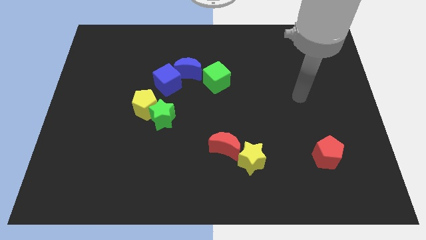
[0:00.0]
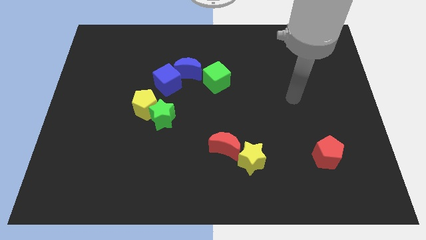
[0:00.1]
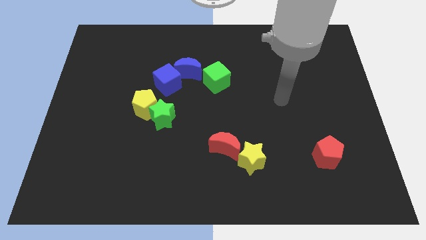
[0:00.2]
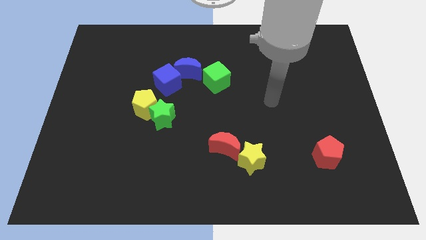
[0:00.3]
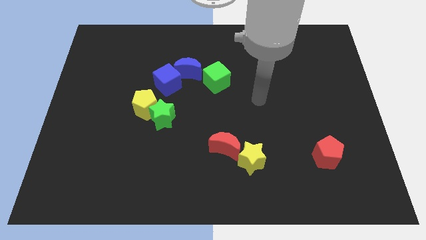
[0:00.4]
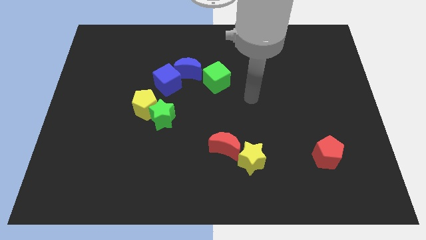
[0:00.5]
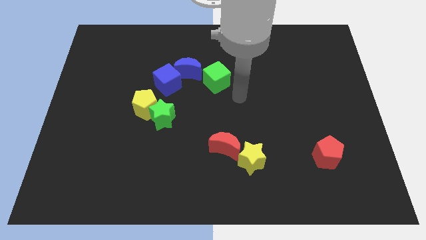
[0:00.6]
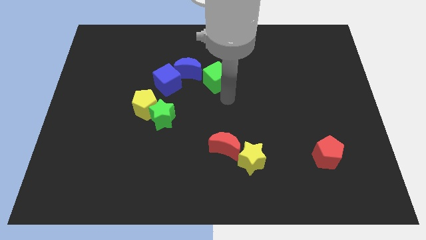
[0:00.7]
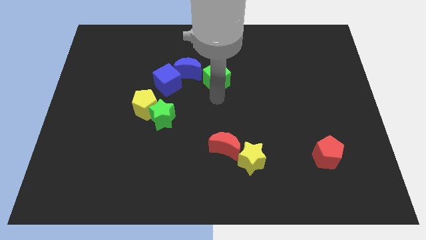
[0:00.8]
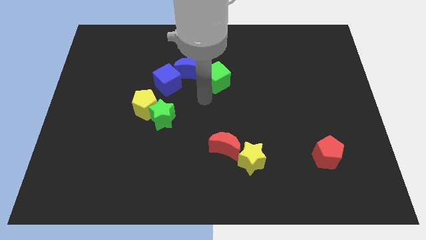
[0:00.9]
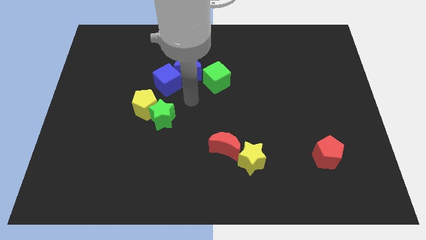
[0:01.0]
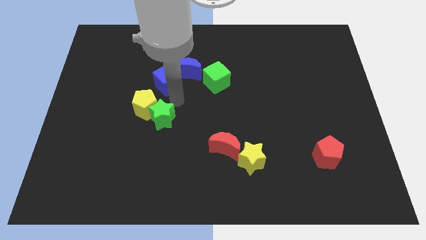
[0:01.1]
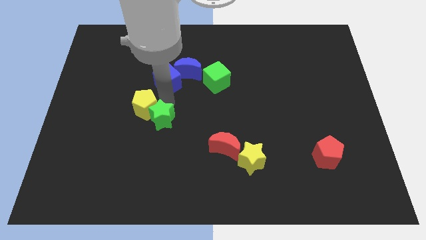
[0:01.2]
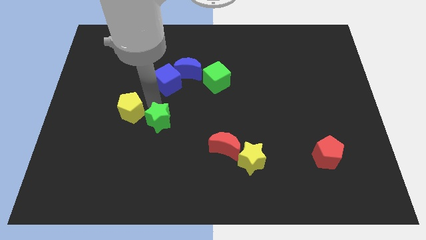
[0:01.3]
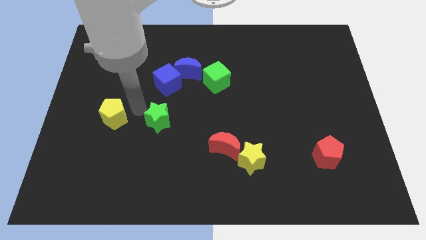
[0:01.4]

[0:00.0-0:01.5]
pull the green star apart from the yellow pentagon

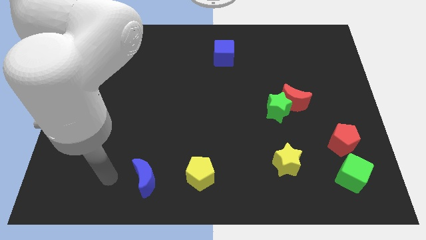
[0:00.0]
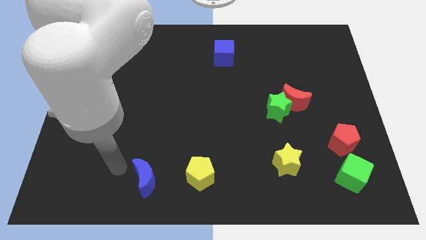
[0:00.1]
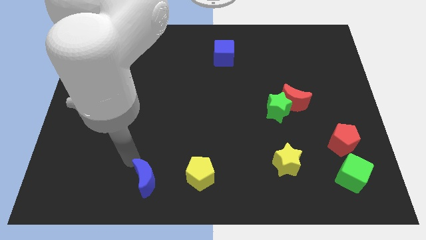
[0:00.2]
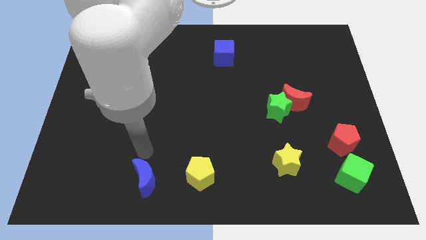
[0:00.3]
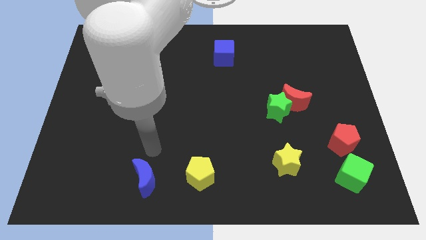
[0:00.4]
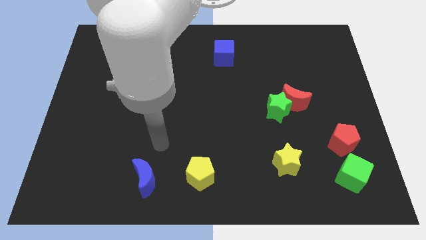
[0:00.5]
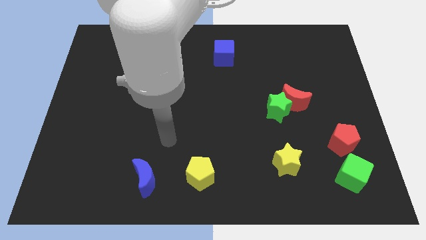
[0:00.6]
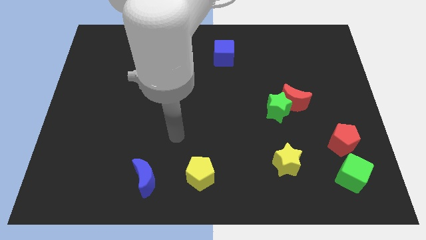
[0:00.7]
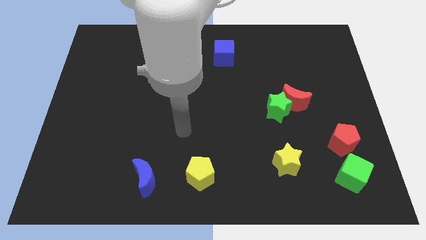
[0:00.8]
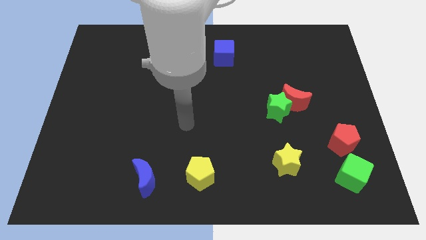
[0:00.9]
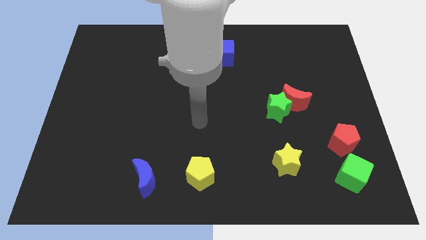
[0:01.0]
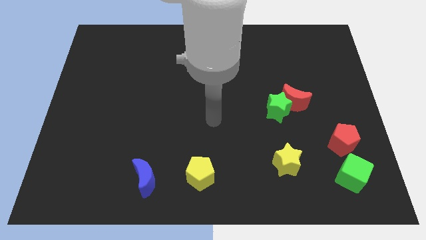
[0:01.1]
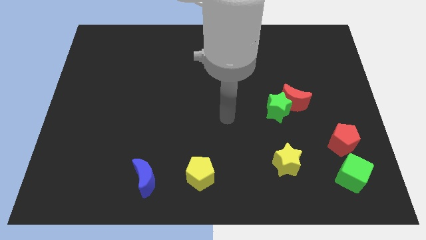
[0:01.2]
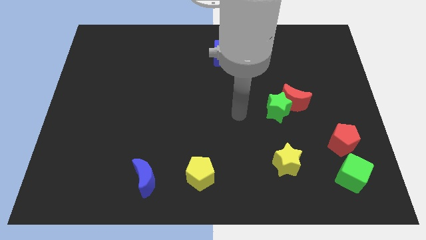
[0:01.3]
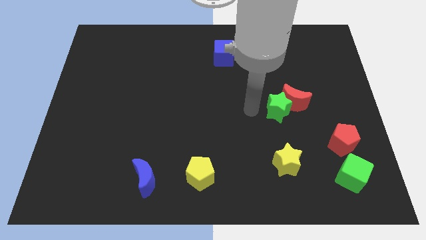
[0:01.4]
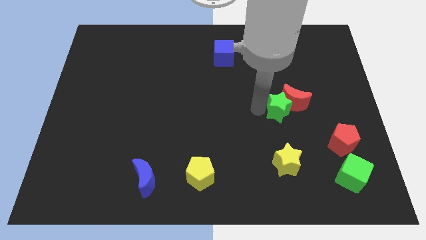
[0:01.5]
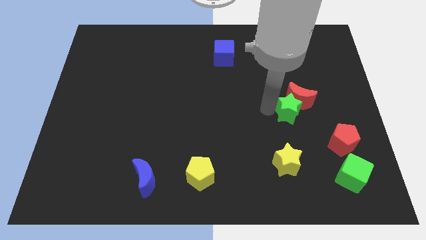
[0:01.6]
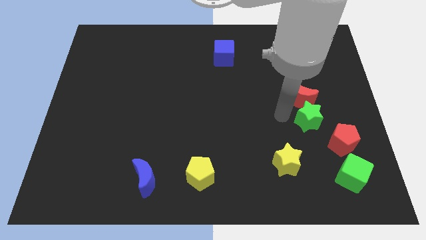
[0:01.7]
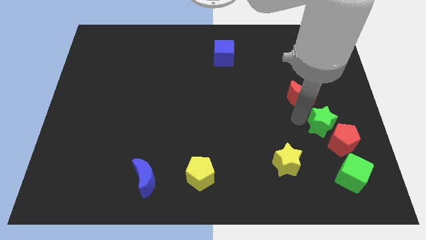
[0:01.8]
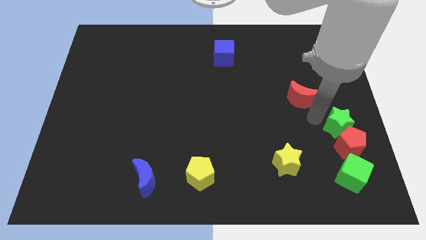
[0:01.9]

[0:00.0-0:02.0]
pull the red moon apart from the green star

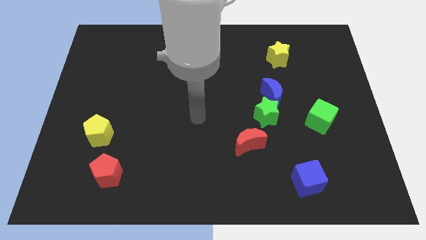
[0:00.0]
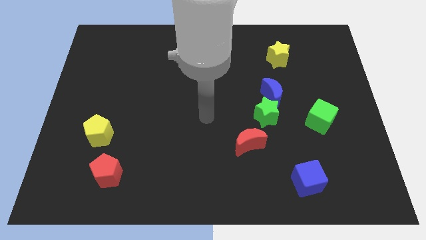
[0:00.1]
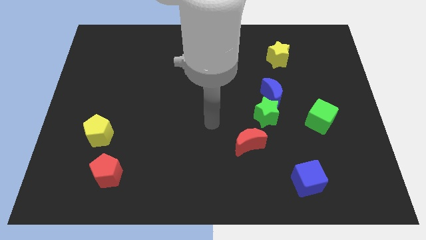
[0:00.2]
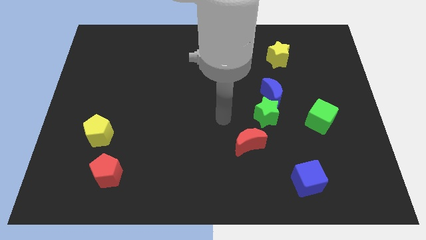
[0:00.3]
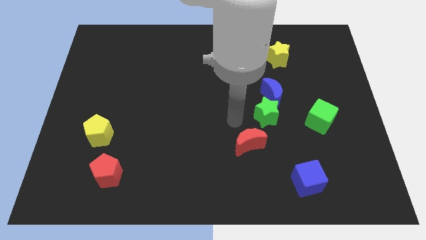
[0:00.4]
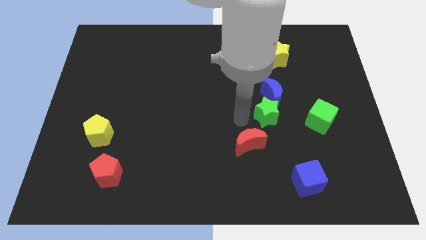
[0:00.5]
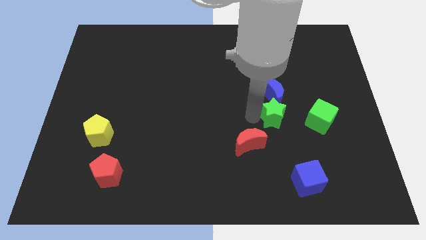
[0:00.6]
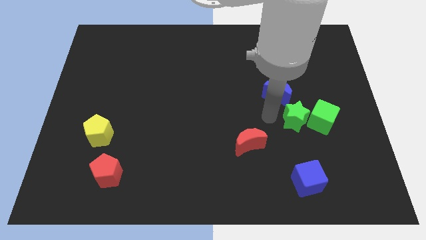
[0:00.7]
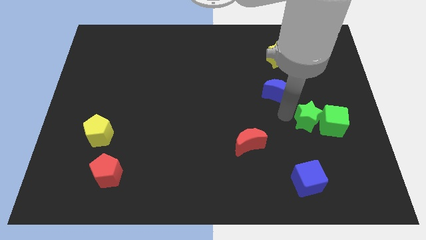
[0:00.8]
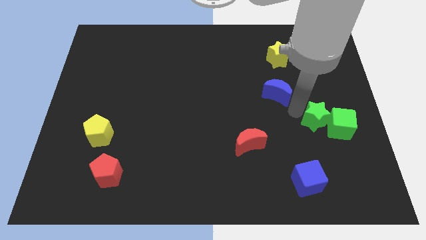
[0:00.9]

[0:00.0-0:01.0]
pull the blue moon apart from the green star

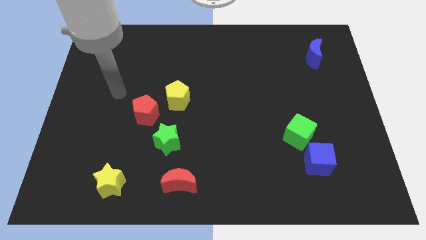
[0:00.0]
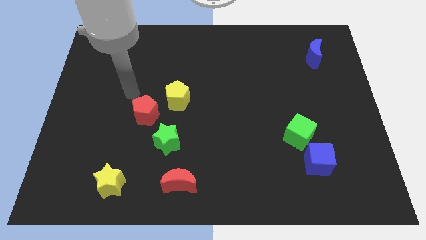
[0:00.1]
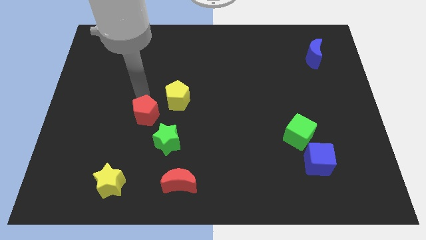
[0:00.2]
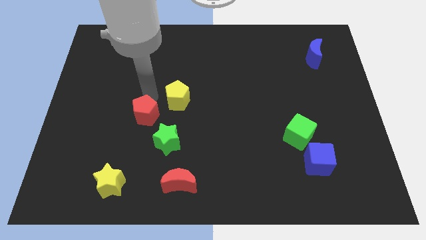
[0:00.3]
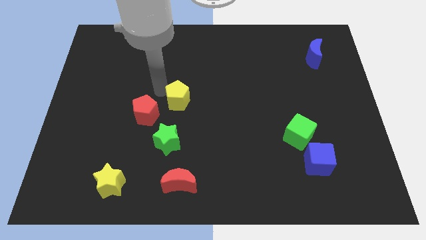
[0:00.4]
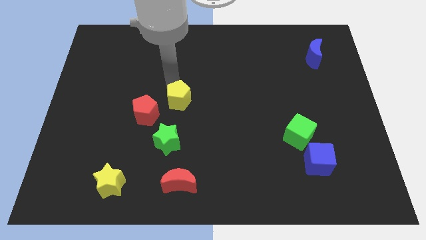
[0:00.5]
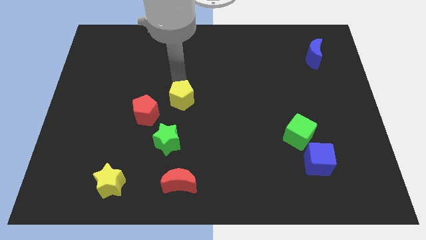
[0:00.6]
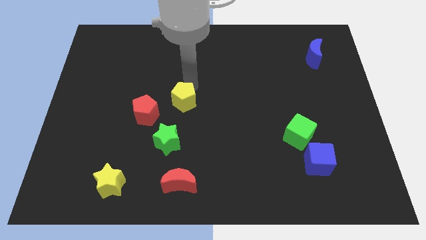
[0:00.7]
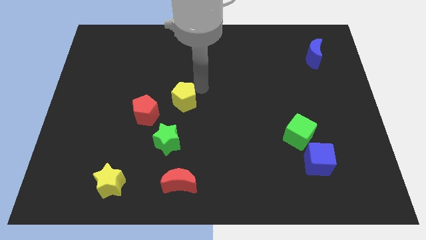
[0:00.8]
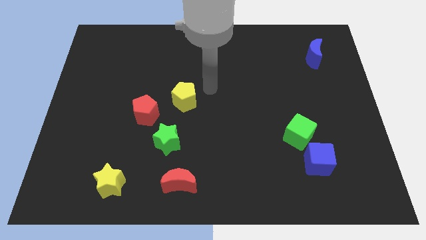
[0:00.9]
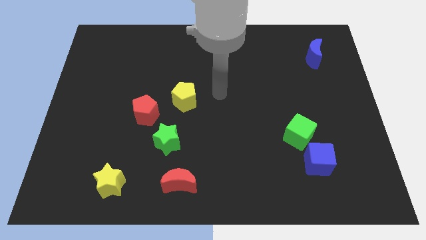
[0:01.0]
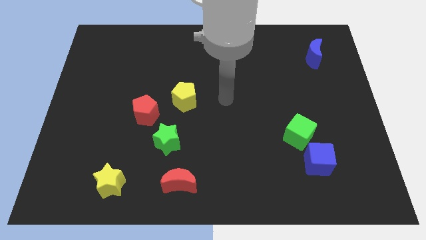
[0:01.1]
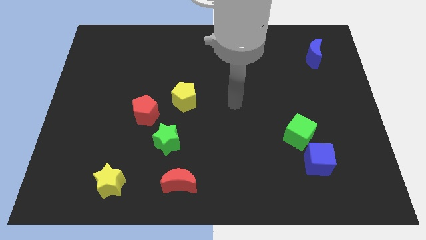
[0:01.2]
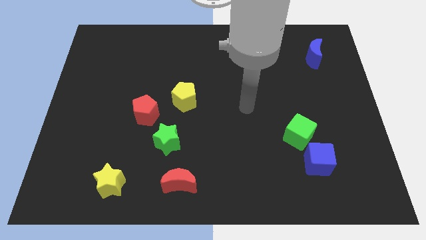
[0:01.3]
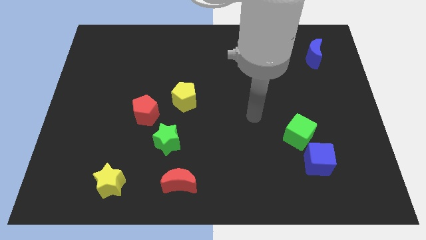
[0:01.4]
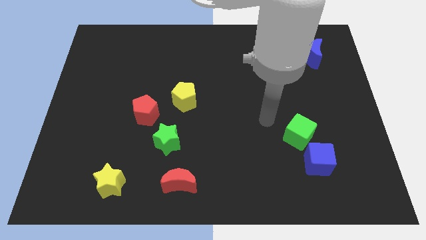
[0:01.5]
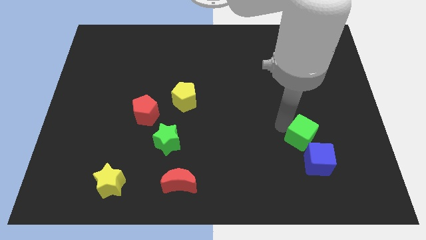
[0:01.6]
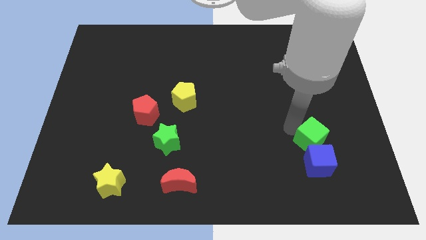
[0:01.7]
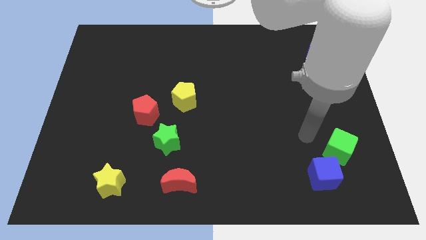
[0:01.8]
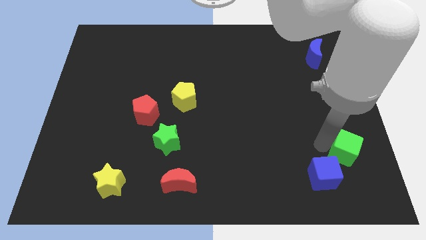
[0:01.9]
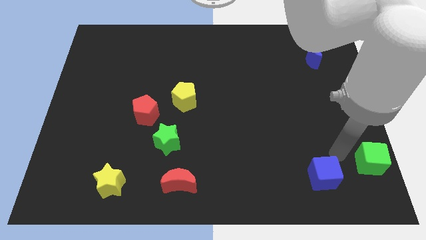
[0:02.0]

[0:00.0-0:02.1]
separate the blue cube from the green cube

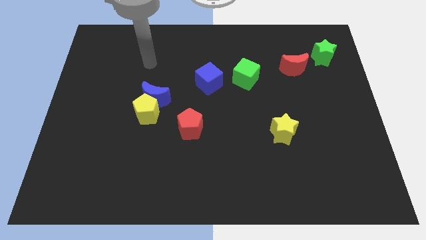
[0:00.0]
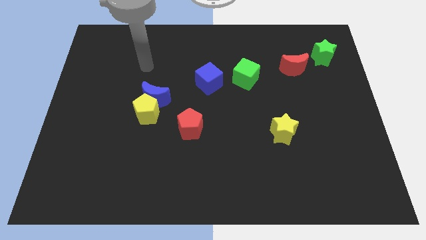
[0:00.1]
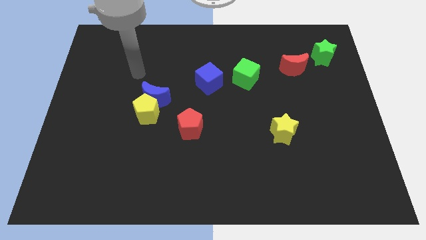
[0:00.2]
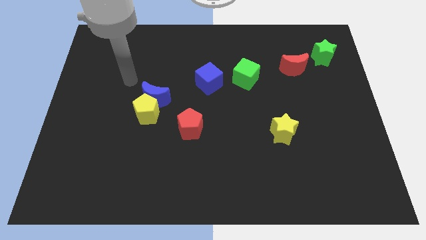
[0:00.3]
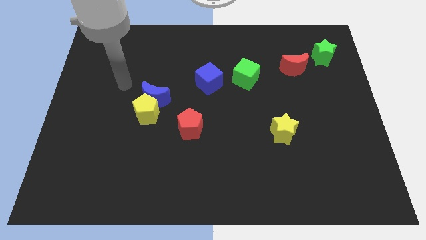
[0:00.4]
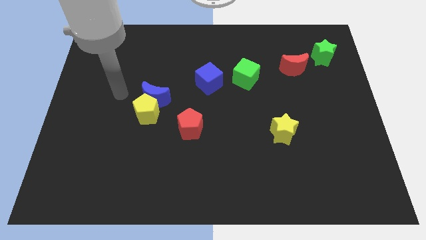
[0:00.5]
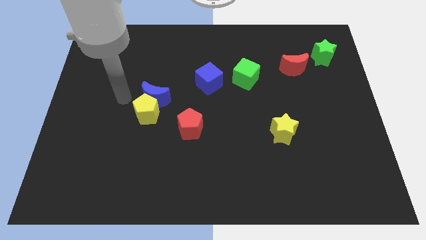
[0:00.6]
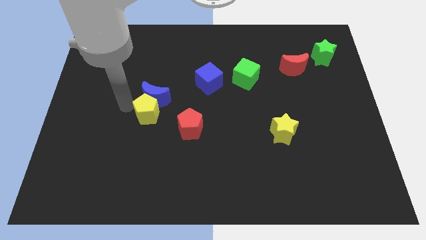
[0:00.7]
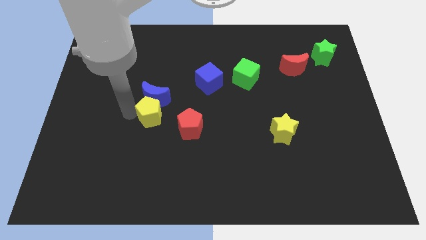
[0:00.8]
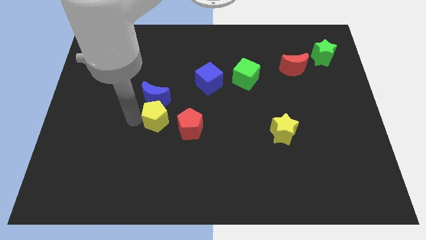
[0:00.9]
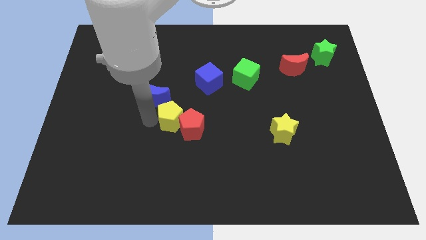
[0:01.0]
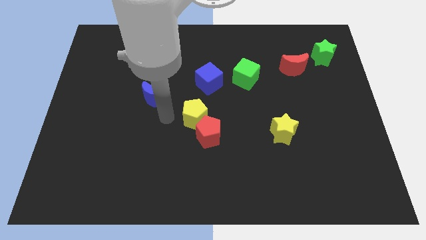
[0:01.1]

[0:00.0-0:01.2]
pull the blue moon apart from the yellow pentagon

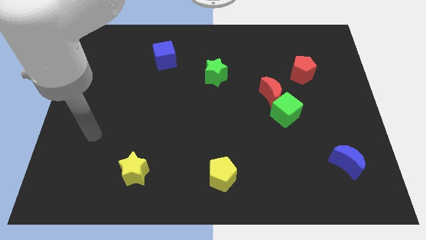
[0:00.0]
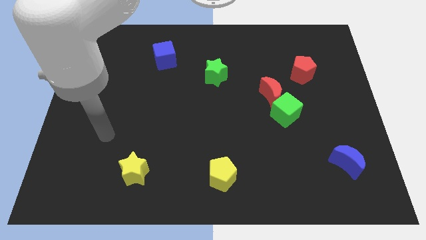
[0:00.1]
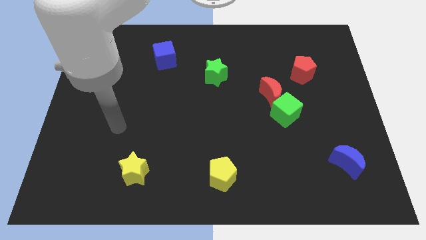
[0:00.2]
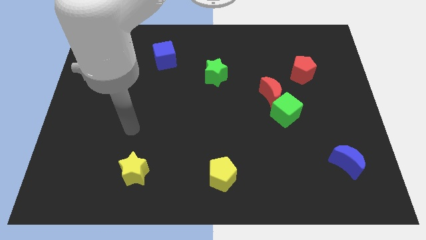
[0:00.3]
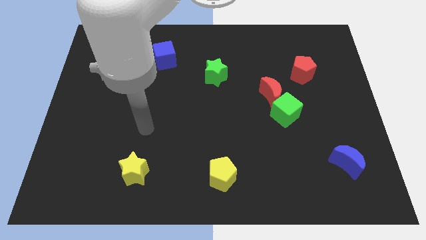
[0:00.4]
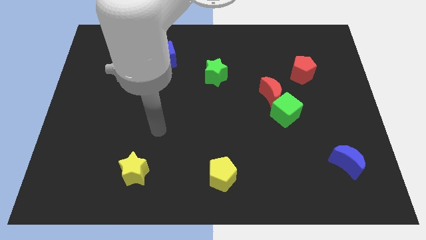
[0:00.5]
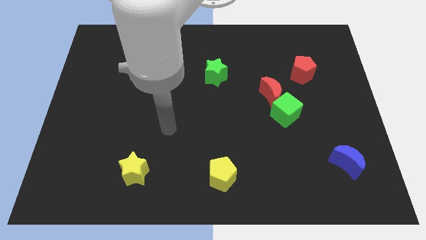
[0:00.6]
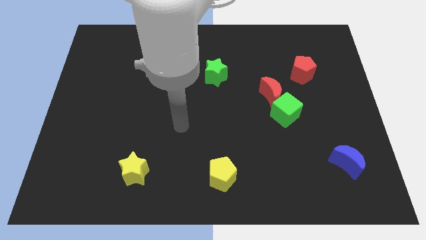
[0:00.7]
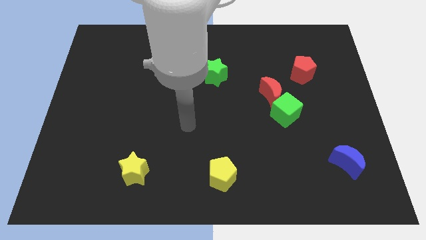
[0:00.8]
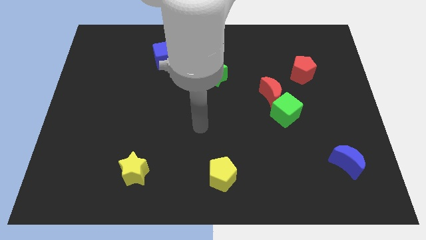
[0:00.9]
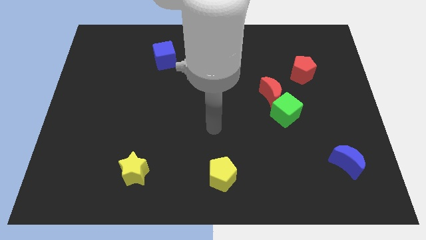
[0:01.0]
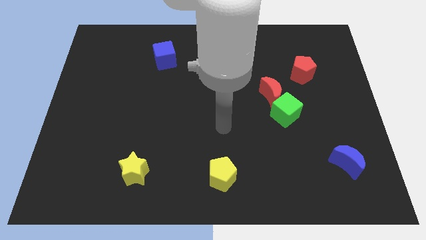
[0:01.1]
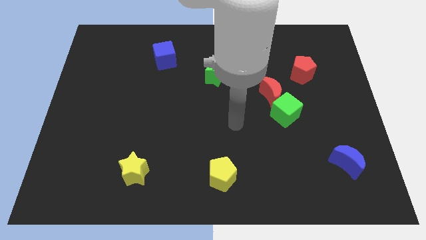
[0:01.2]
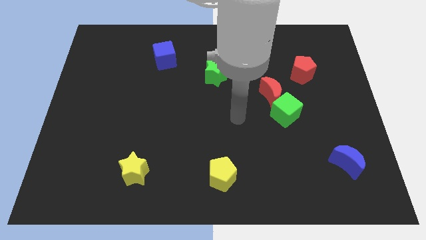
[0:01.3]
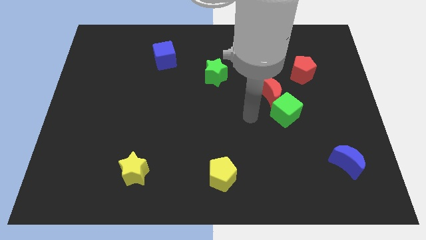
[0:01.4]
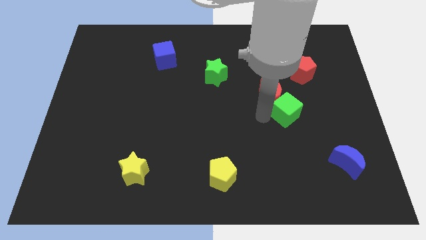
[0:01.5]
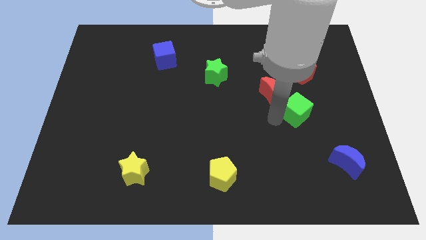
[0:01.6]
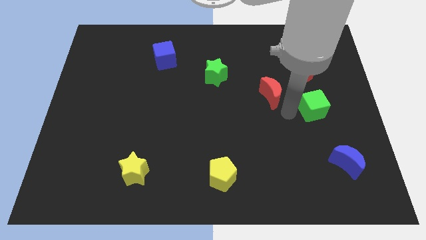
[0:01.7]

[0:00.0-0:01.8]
pull the red moon apart from the green cube
